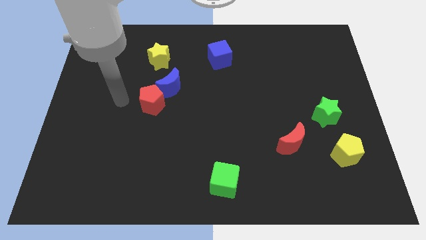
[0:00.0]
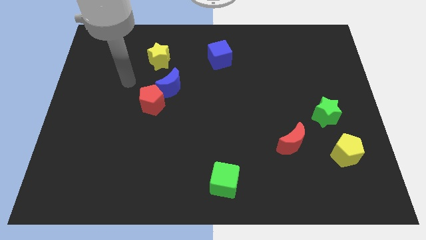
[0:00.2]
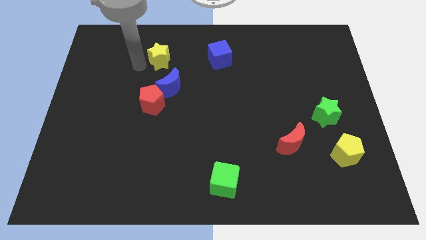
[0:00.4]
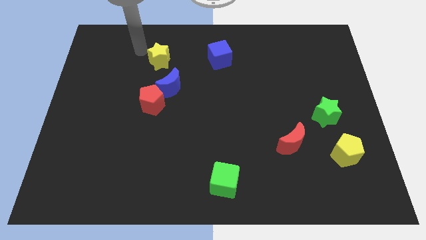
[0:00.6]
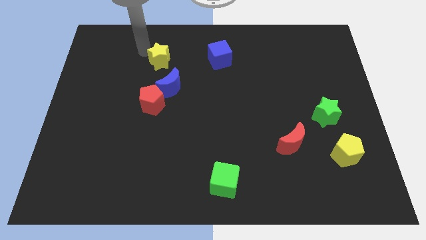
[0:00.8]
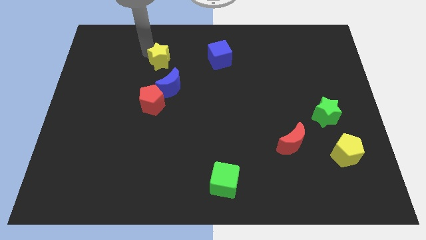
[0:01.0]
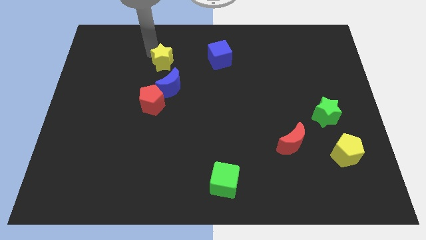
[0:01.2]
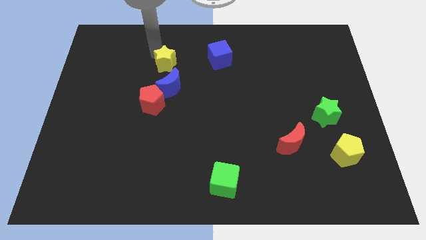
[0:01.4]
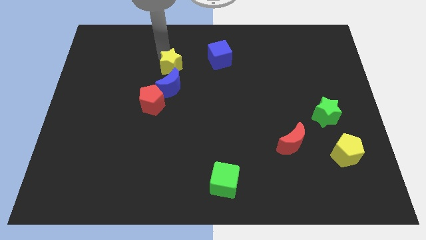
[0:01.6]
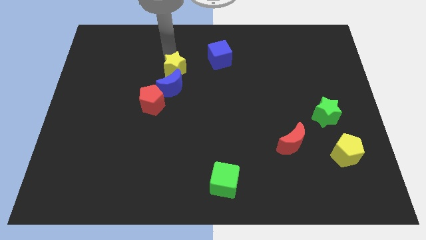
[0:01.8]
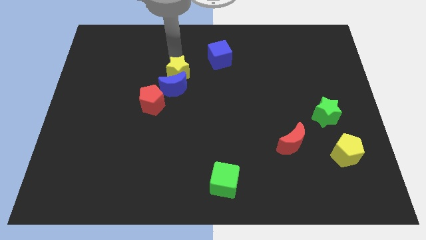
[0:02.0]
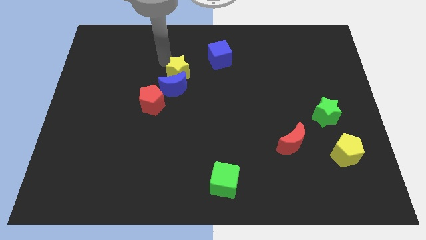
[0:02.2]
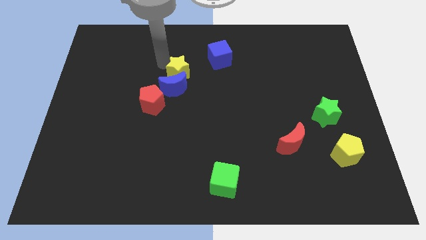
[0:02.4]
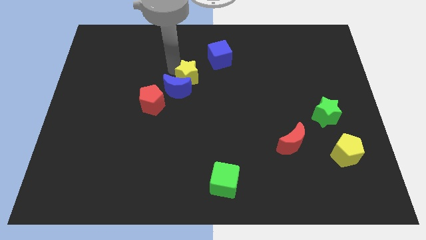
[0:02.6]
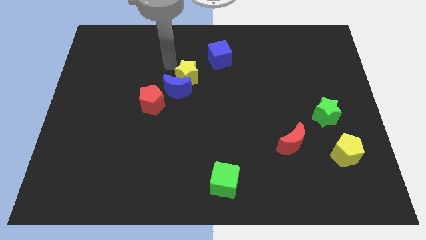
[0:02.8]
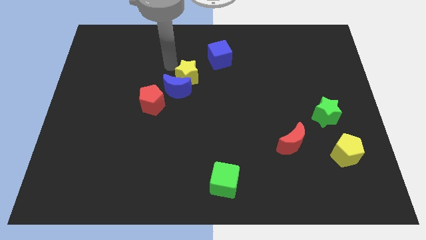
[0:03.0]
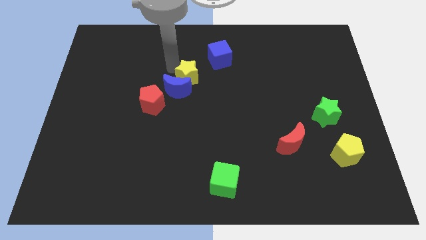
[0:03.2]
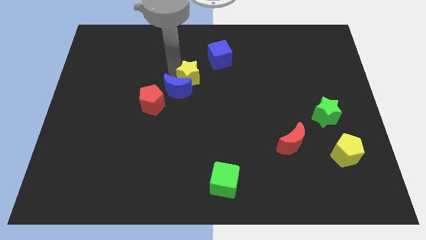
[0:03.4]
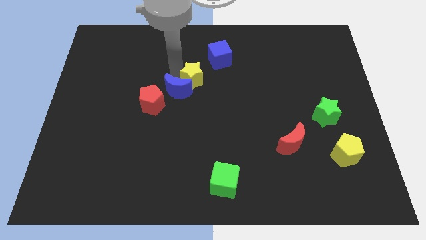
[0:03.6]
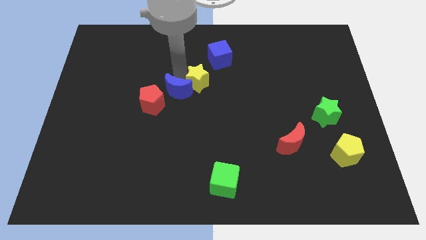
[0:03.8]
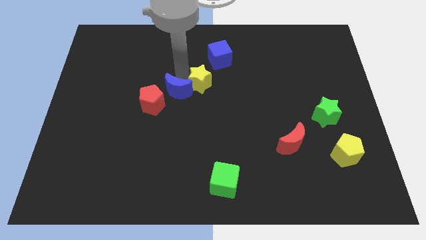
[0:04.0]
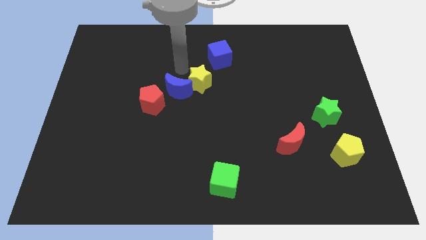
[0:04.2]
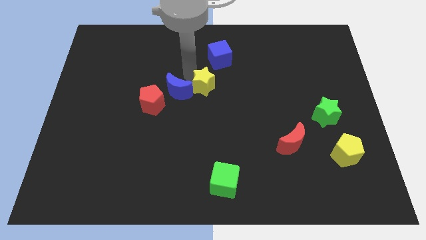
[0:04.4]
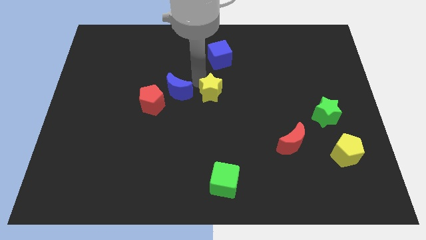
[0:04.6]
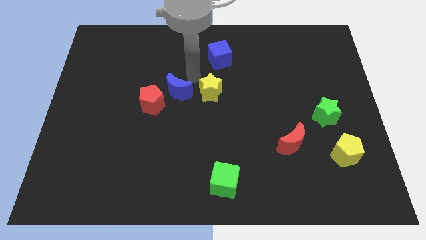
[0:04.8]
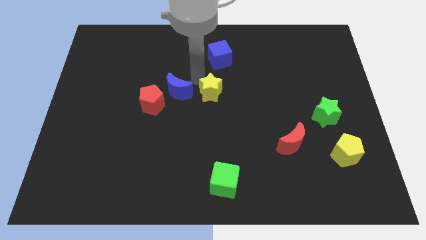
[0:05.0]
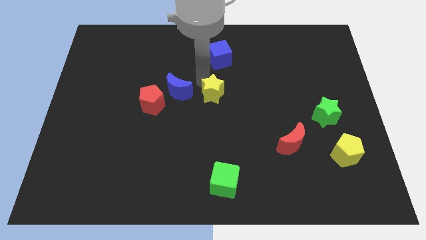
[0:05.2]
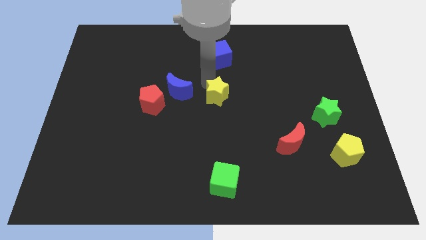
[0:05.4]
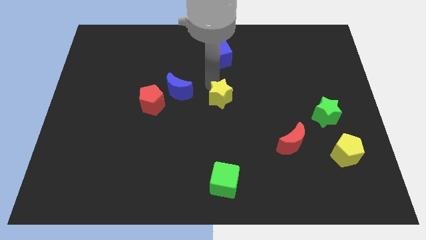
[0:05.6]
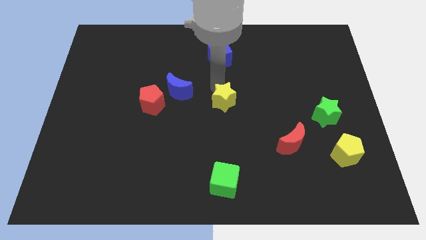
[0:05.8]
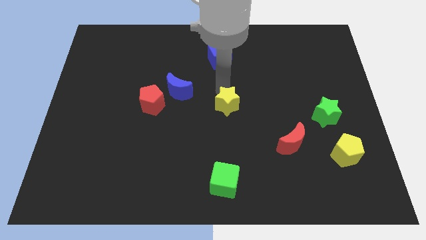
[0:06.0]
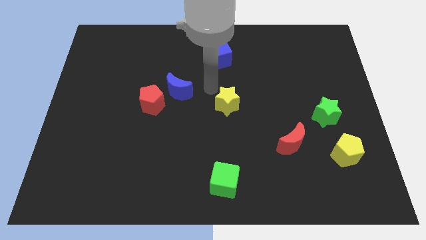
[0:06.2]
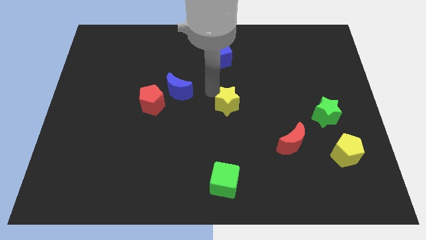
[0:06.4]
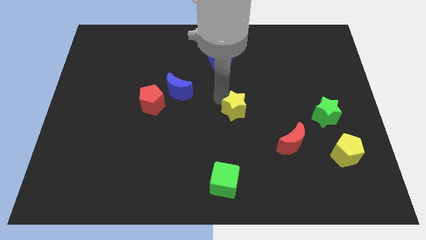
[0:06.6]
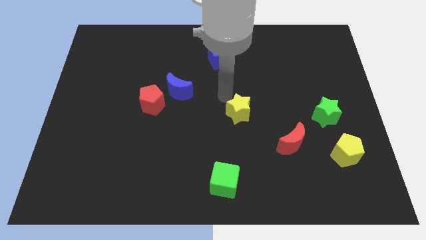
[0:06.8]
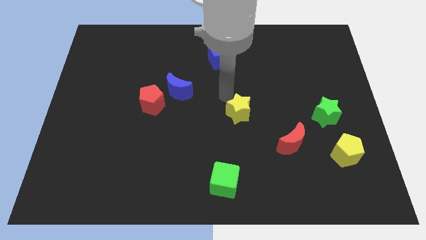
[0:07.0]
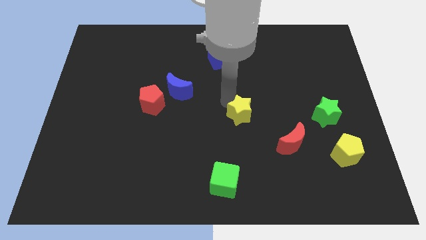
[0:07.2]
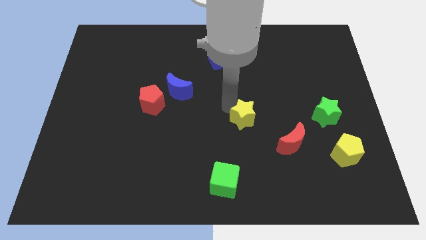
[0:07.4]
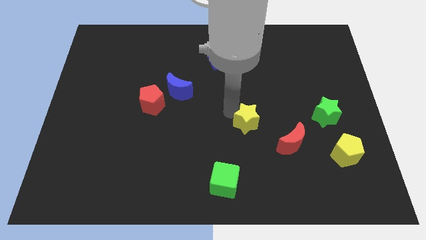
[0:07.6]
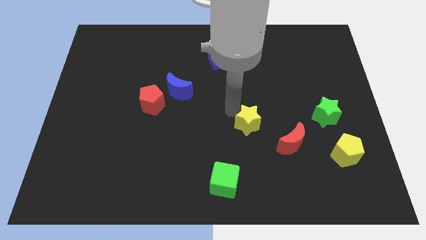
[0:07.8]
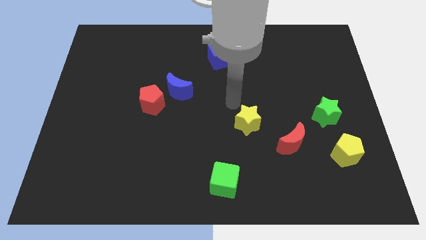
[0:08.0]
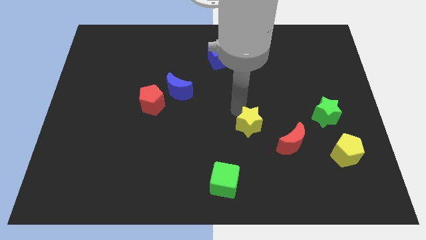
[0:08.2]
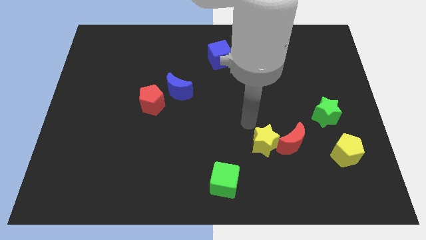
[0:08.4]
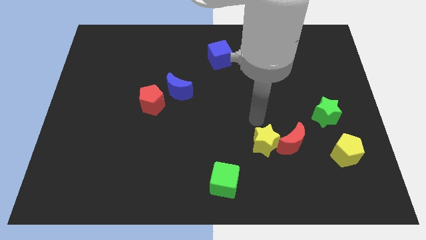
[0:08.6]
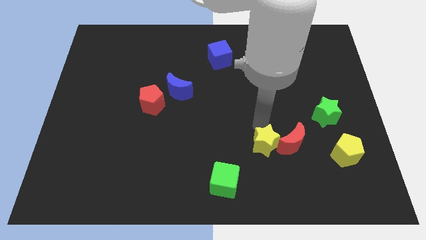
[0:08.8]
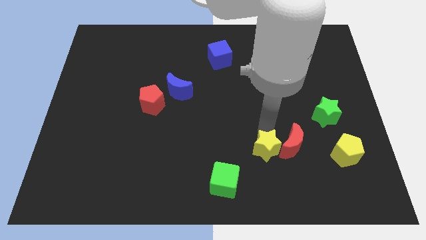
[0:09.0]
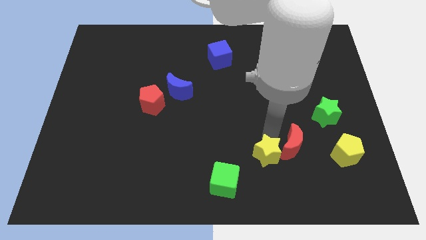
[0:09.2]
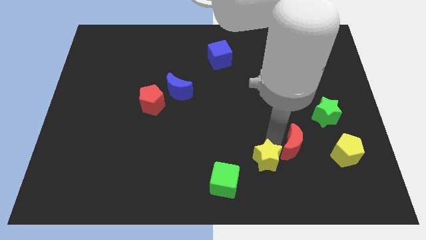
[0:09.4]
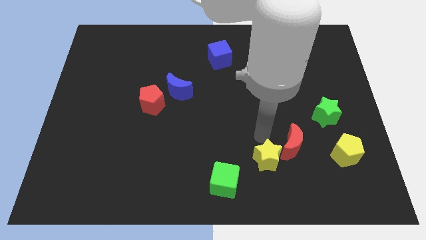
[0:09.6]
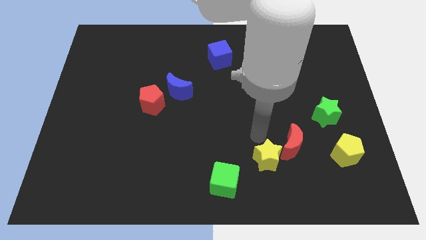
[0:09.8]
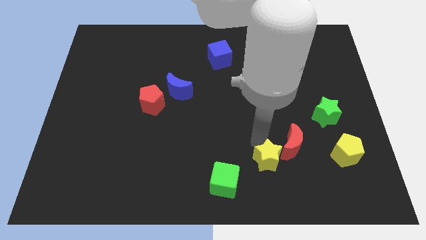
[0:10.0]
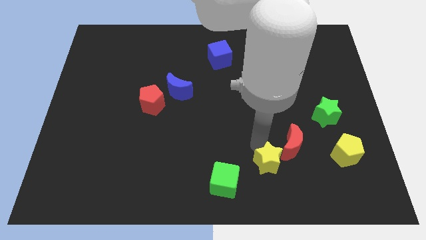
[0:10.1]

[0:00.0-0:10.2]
push the yellow star to the right side of the green cube
